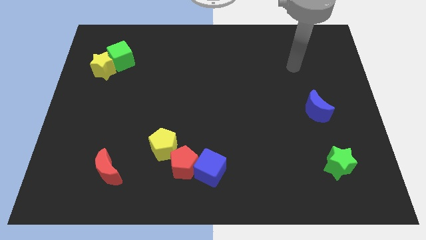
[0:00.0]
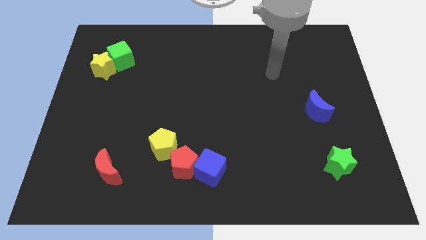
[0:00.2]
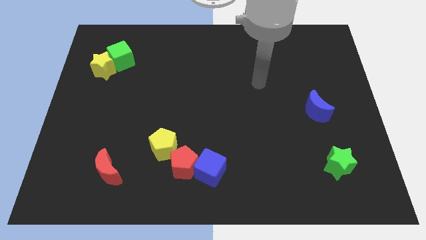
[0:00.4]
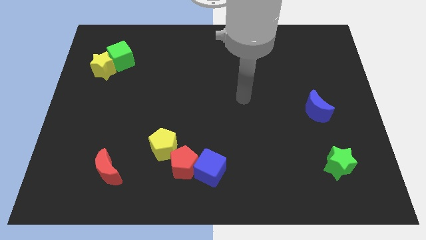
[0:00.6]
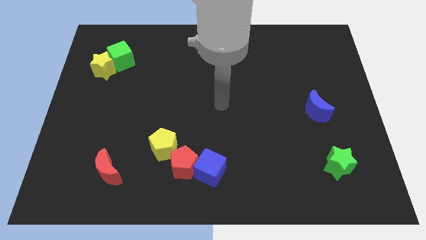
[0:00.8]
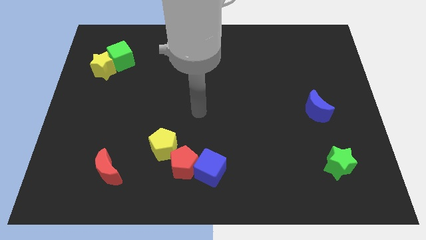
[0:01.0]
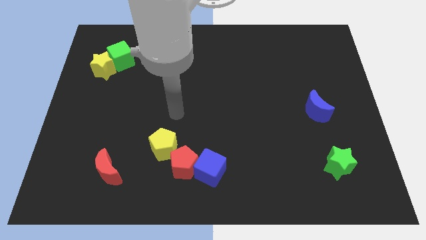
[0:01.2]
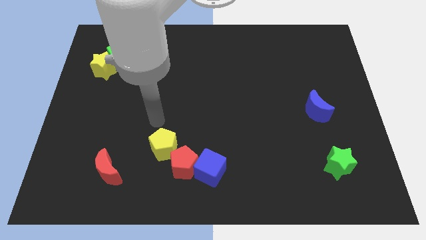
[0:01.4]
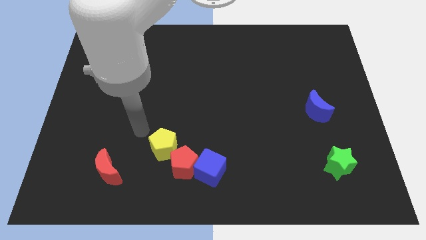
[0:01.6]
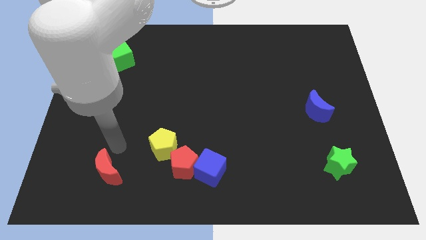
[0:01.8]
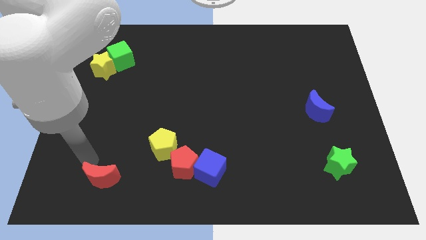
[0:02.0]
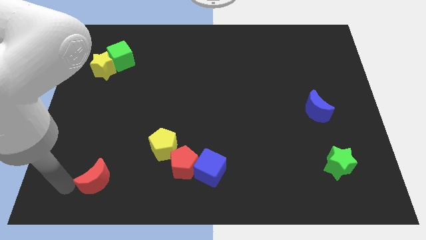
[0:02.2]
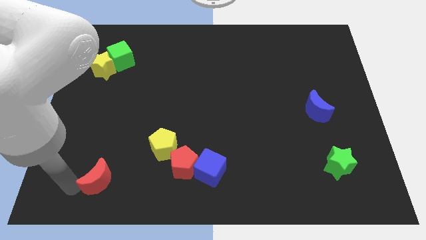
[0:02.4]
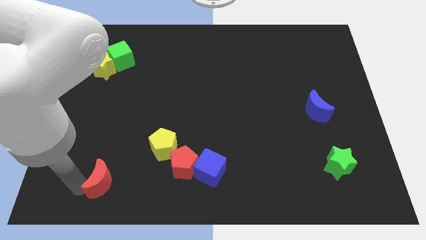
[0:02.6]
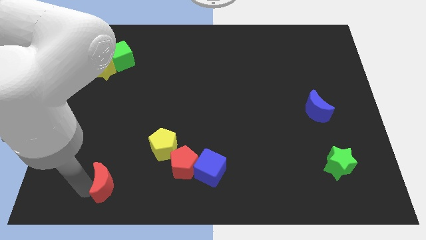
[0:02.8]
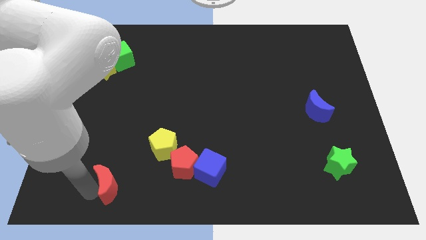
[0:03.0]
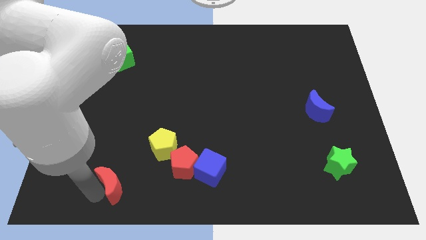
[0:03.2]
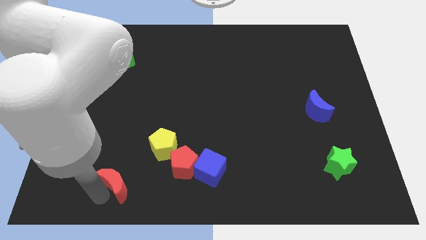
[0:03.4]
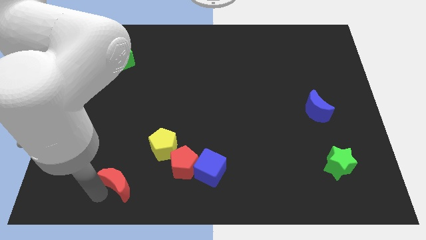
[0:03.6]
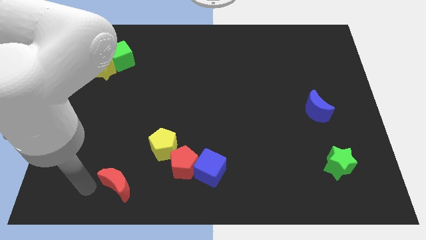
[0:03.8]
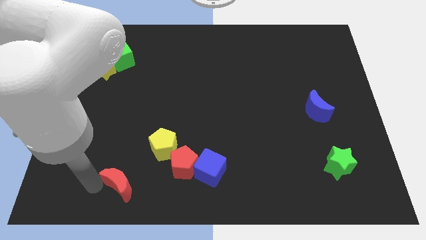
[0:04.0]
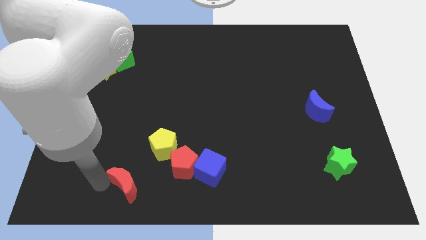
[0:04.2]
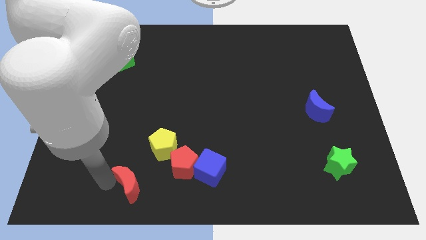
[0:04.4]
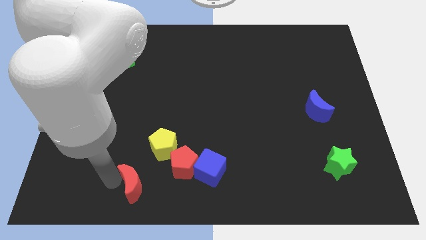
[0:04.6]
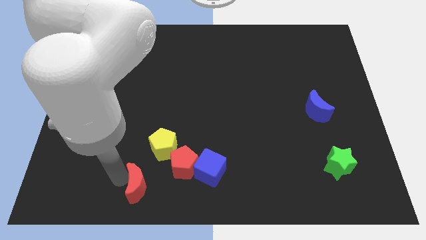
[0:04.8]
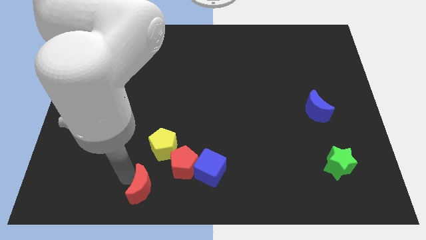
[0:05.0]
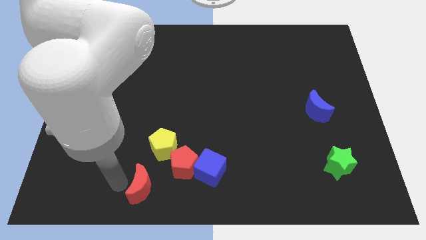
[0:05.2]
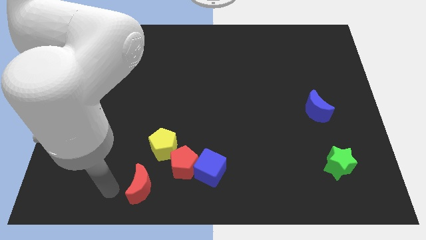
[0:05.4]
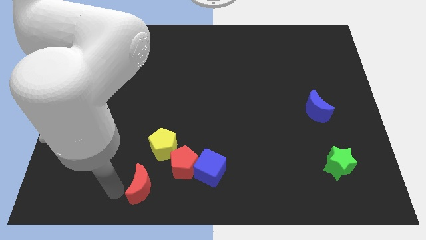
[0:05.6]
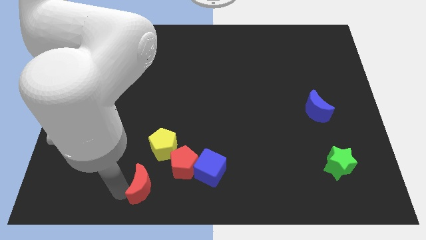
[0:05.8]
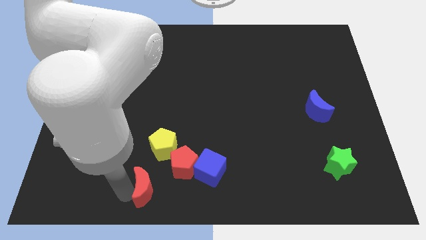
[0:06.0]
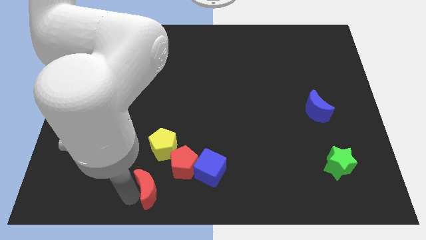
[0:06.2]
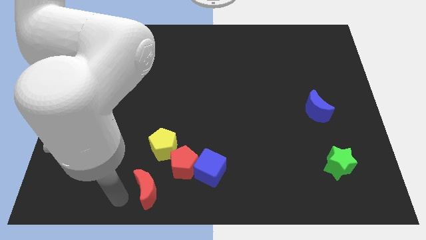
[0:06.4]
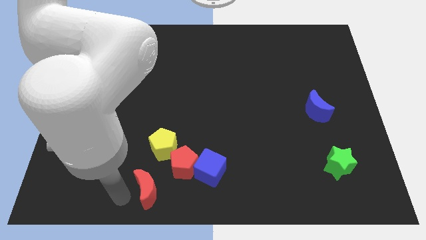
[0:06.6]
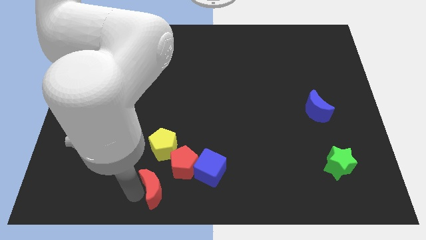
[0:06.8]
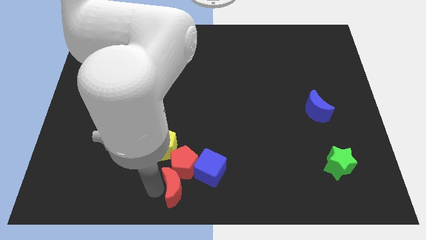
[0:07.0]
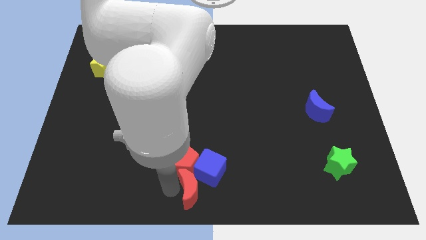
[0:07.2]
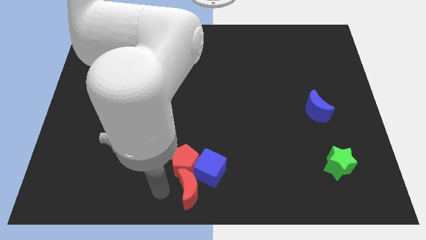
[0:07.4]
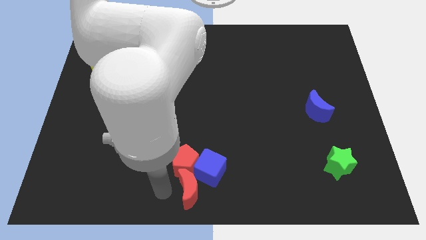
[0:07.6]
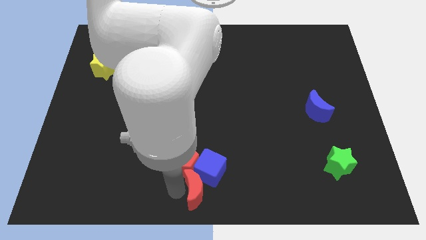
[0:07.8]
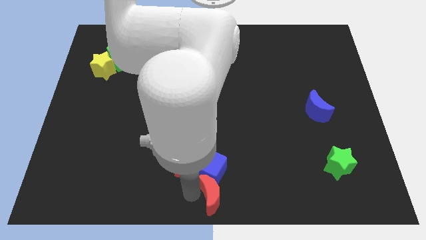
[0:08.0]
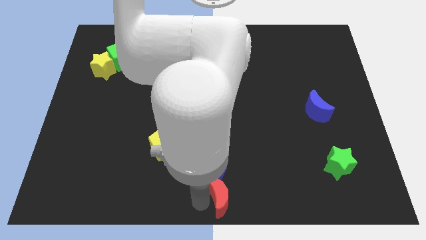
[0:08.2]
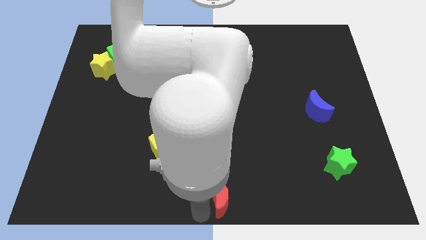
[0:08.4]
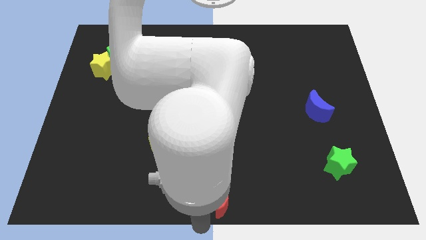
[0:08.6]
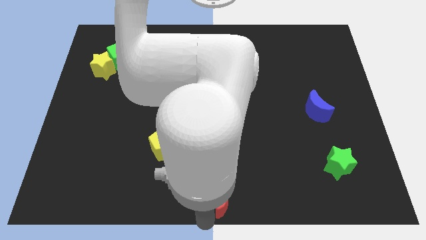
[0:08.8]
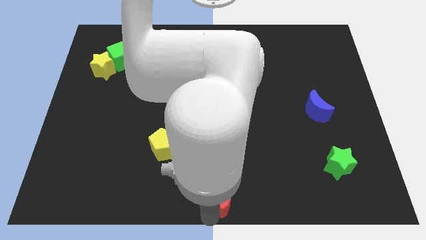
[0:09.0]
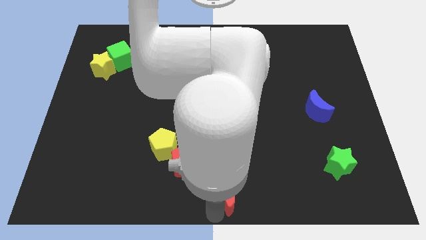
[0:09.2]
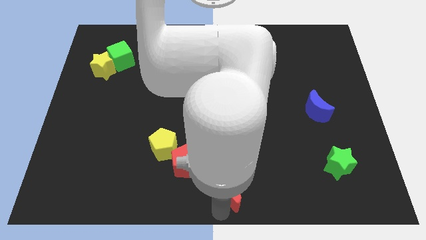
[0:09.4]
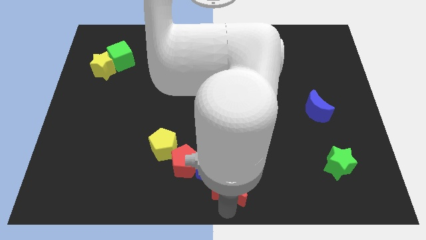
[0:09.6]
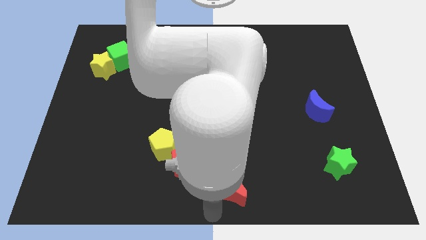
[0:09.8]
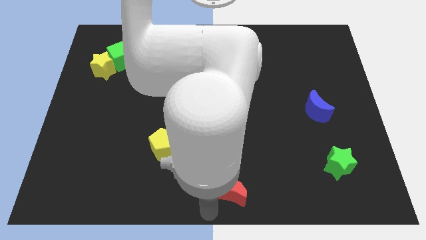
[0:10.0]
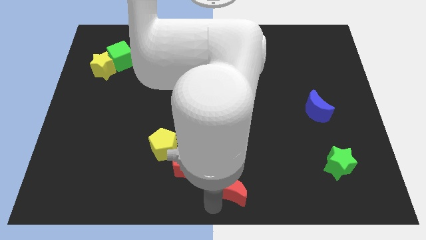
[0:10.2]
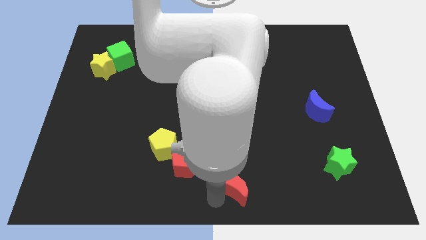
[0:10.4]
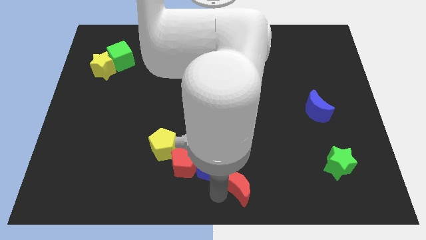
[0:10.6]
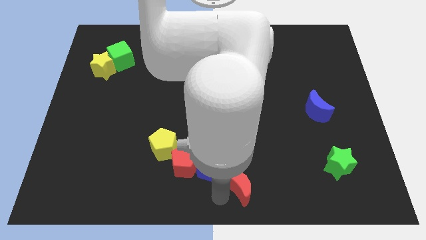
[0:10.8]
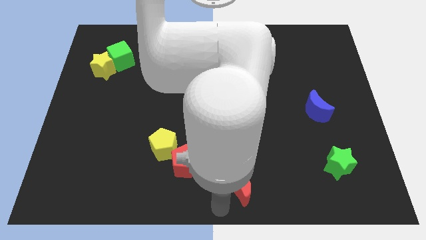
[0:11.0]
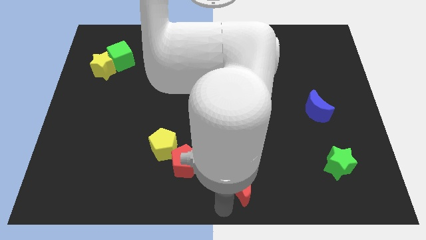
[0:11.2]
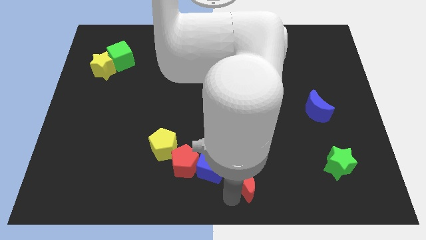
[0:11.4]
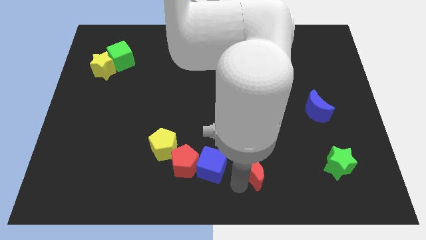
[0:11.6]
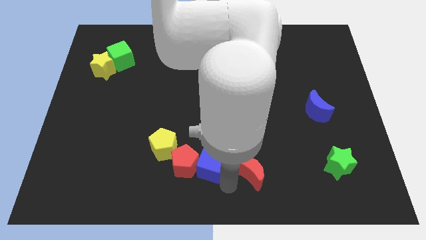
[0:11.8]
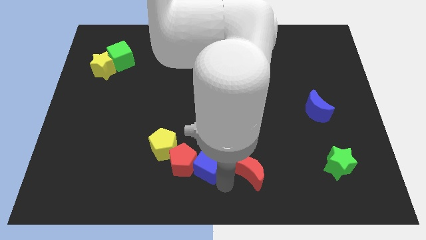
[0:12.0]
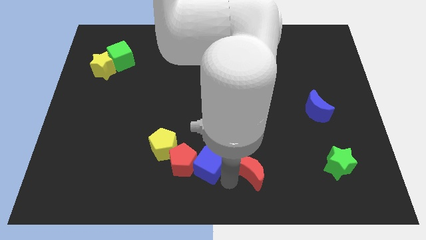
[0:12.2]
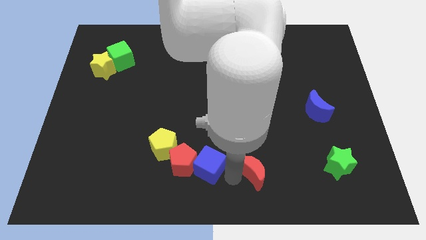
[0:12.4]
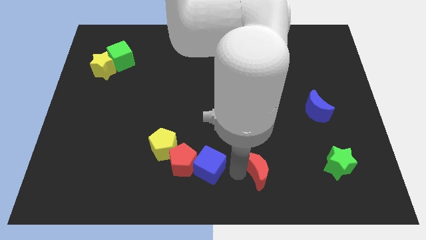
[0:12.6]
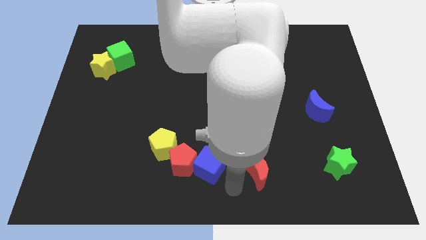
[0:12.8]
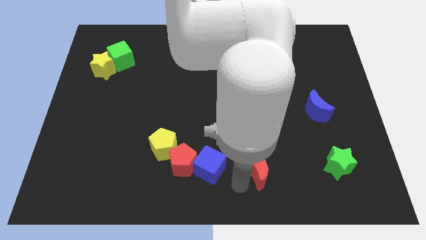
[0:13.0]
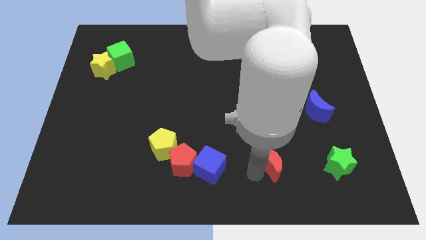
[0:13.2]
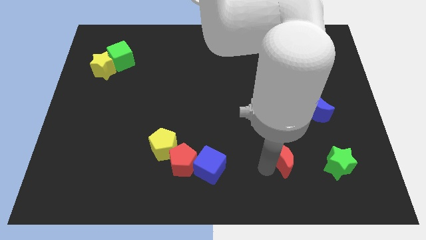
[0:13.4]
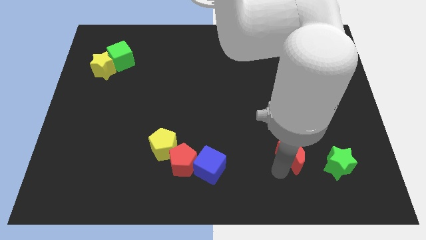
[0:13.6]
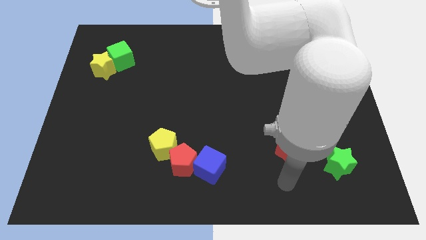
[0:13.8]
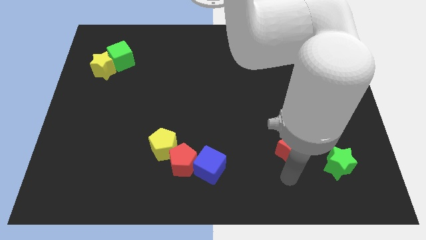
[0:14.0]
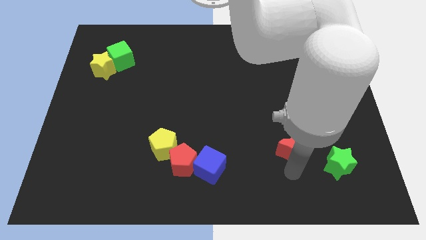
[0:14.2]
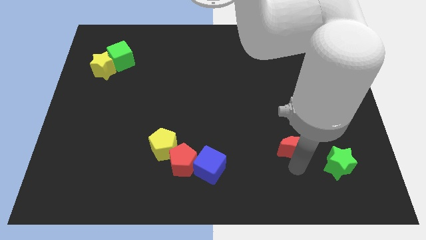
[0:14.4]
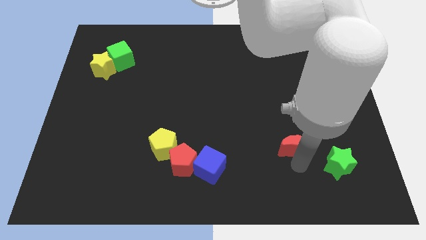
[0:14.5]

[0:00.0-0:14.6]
push the red moon diagonally down and to the left of the blue moon
